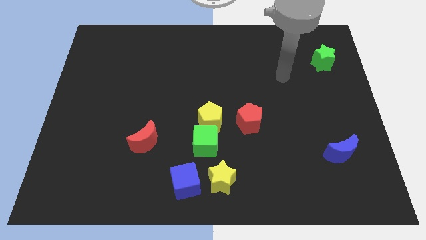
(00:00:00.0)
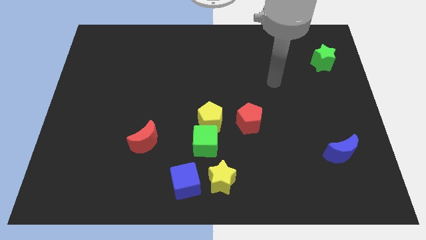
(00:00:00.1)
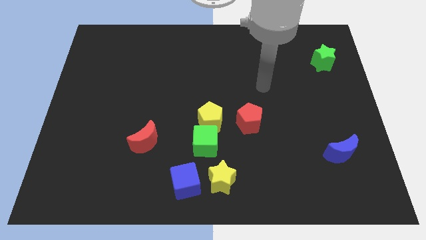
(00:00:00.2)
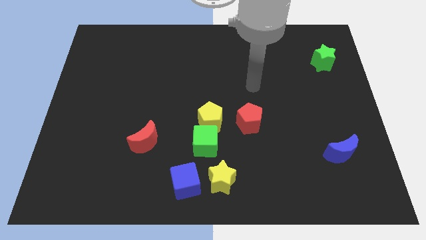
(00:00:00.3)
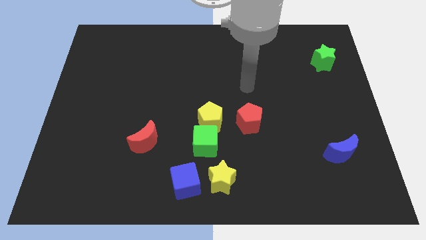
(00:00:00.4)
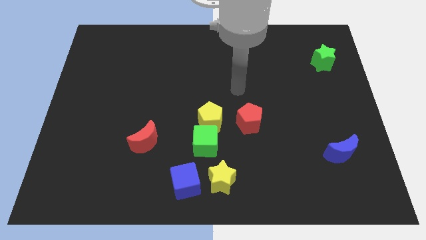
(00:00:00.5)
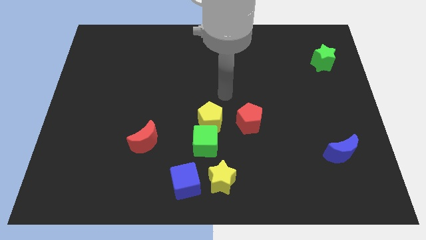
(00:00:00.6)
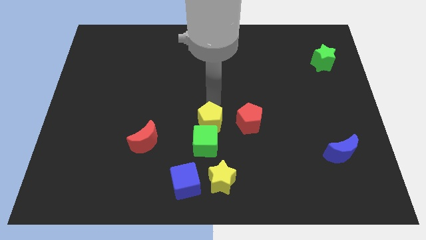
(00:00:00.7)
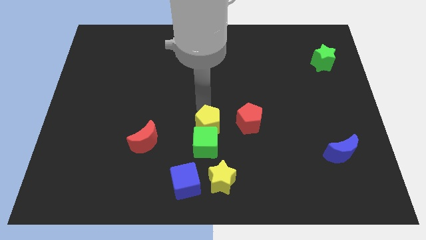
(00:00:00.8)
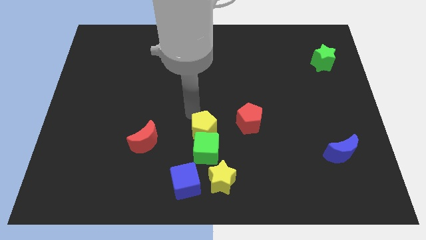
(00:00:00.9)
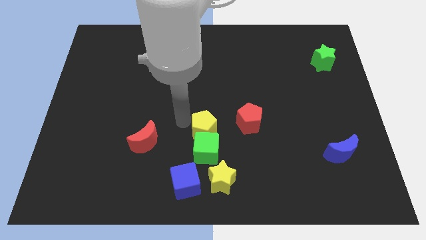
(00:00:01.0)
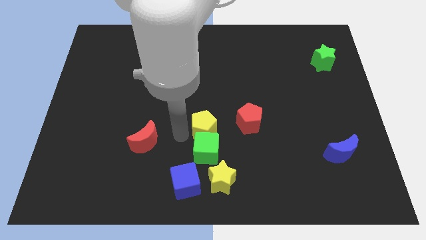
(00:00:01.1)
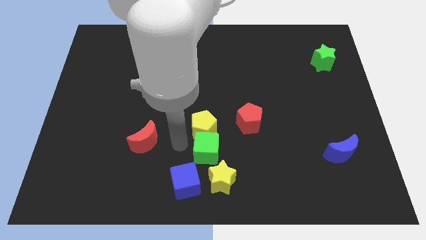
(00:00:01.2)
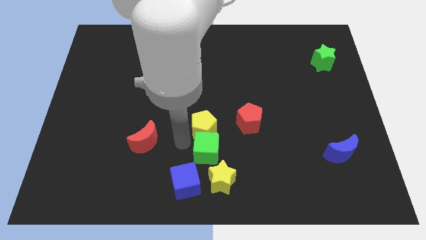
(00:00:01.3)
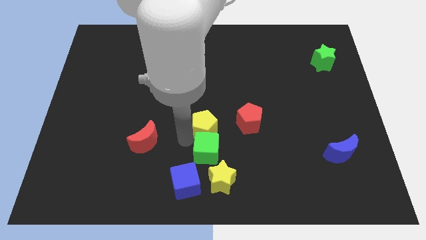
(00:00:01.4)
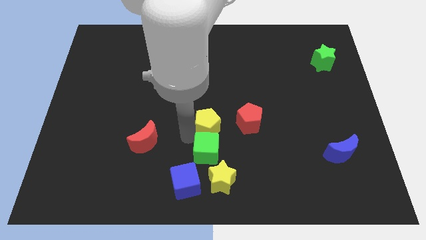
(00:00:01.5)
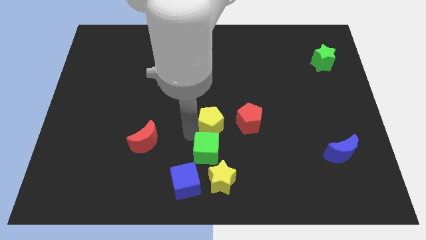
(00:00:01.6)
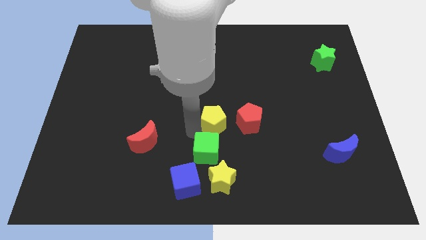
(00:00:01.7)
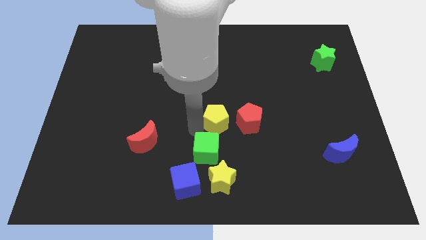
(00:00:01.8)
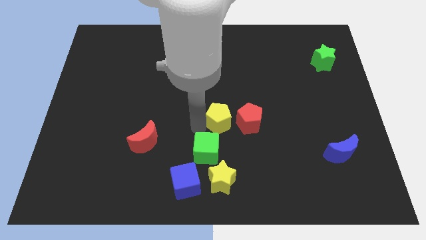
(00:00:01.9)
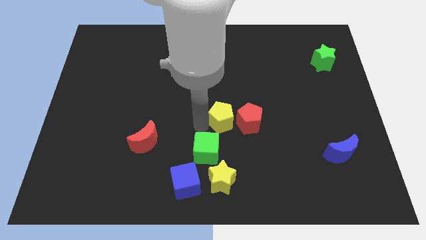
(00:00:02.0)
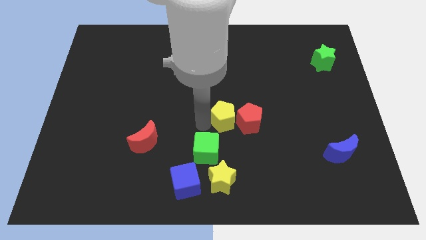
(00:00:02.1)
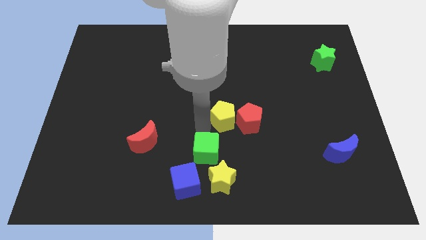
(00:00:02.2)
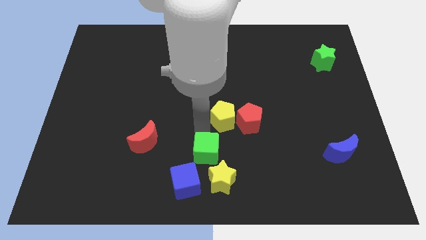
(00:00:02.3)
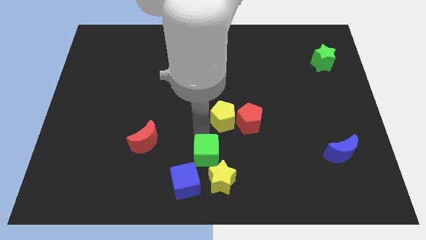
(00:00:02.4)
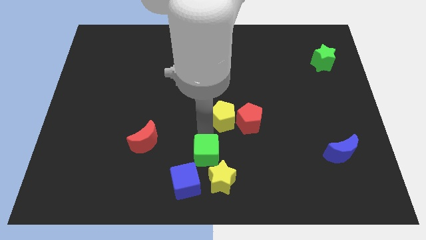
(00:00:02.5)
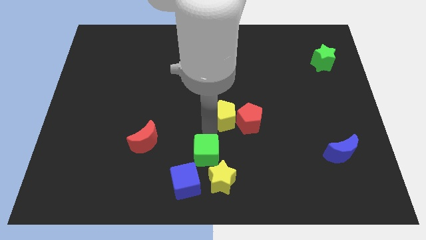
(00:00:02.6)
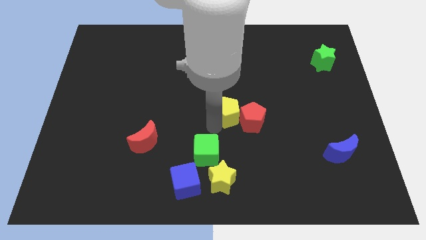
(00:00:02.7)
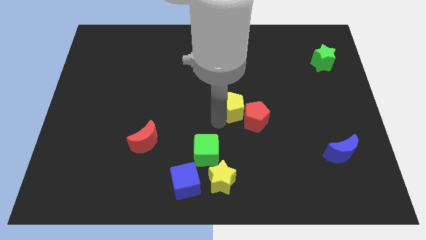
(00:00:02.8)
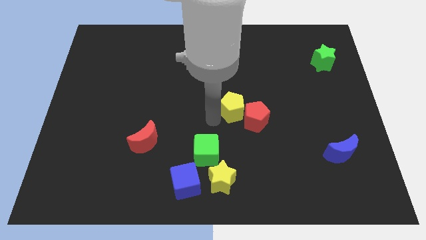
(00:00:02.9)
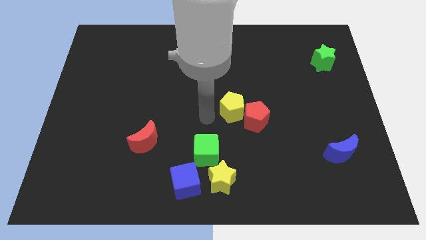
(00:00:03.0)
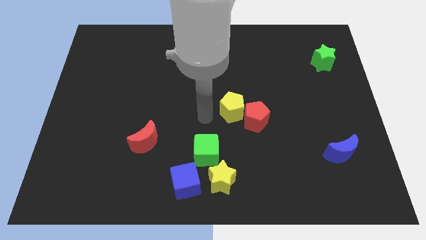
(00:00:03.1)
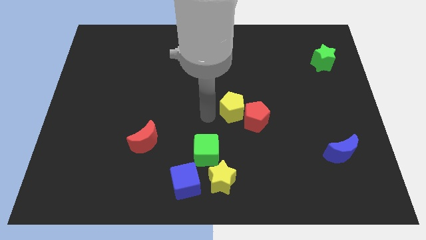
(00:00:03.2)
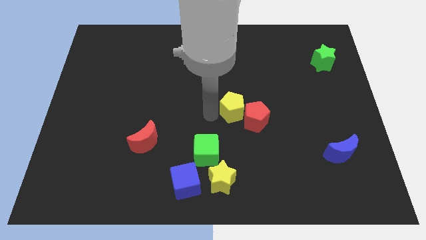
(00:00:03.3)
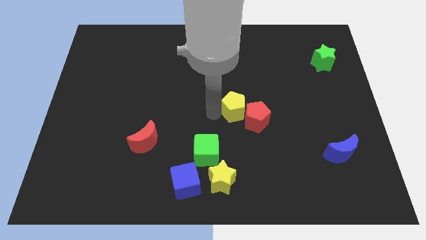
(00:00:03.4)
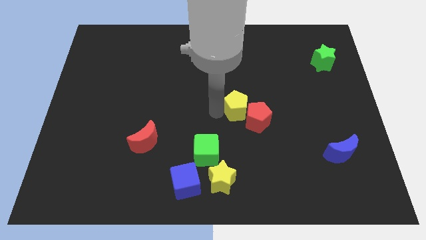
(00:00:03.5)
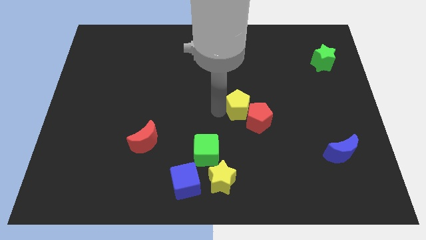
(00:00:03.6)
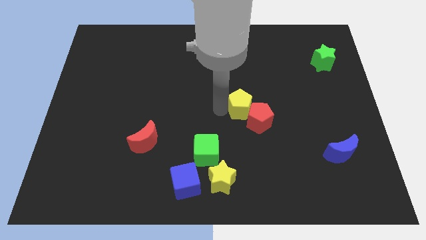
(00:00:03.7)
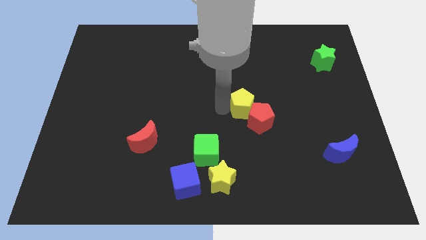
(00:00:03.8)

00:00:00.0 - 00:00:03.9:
slide the yellow pentagon to the right somewhat

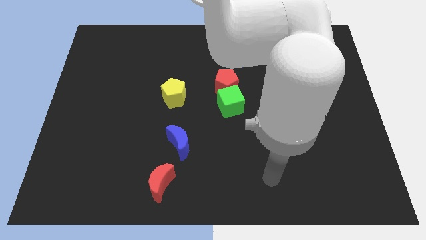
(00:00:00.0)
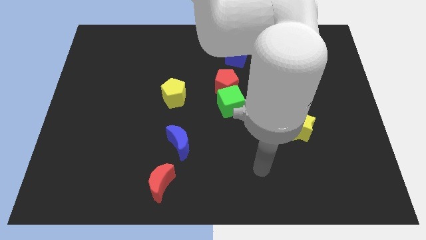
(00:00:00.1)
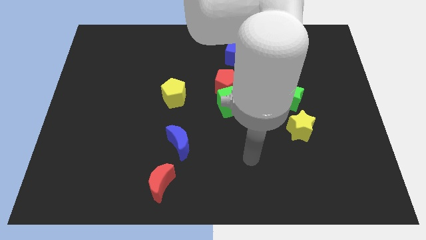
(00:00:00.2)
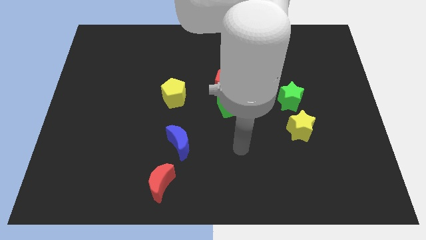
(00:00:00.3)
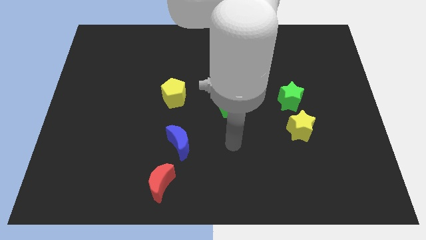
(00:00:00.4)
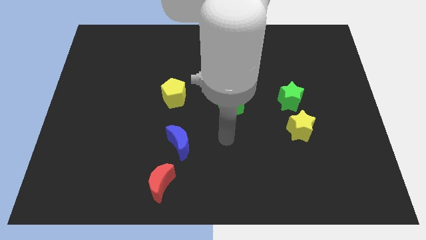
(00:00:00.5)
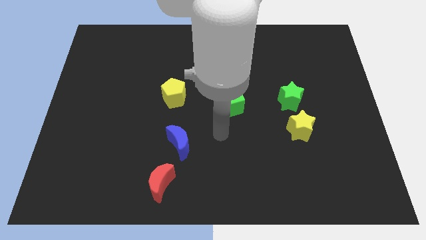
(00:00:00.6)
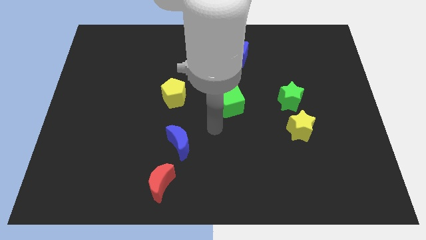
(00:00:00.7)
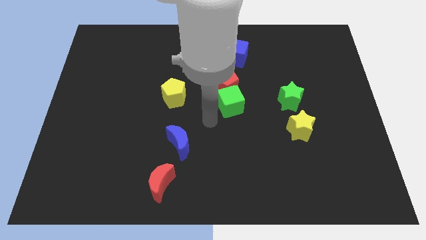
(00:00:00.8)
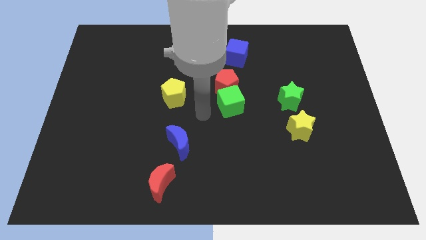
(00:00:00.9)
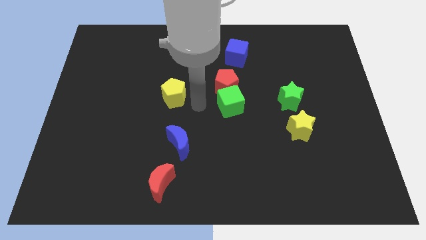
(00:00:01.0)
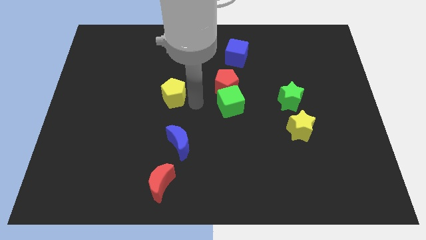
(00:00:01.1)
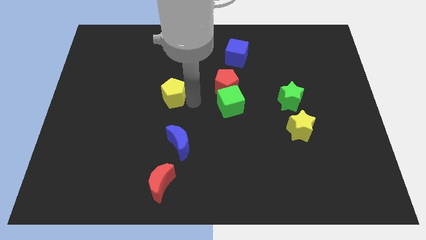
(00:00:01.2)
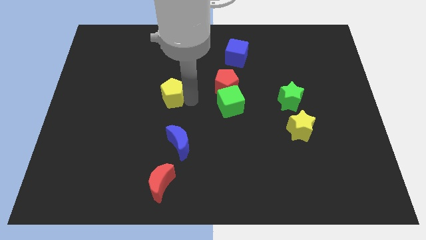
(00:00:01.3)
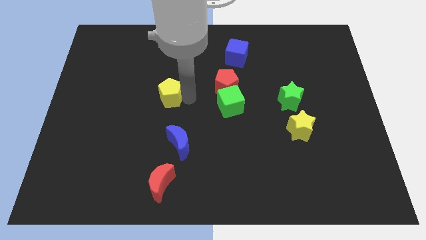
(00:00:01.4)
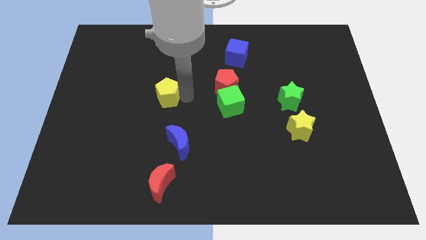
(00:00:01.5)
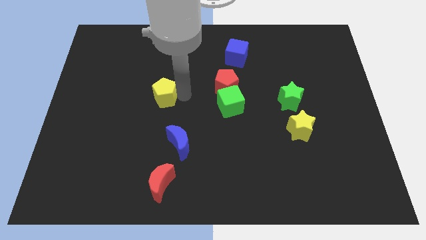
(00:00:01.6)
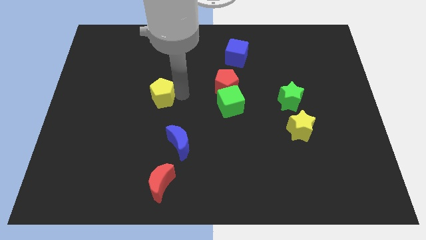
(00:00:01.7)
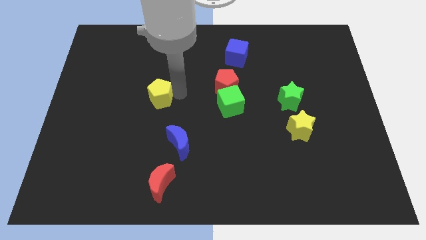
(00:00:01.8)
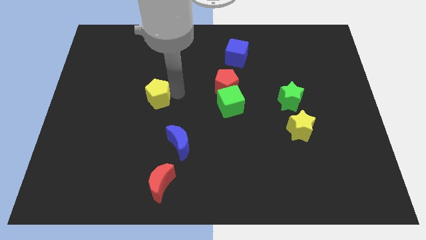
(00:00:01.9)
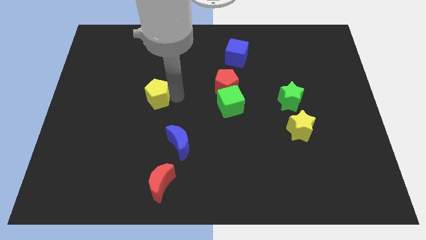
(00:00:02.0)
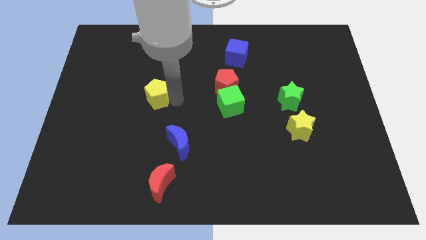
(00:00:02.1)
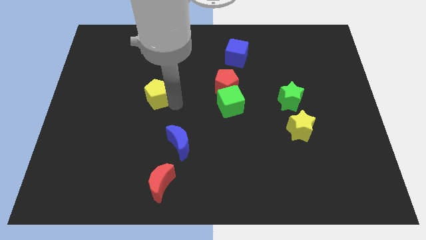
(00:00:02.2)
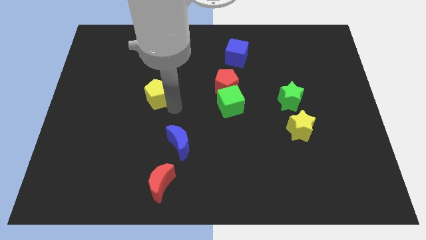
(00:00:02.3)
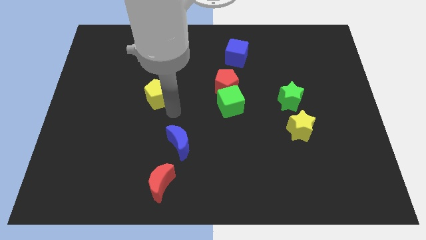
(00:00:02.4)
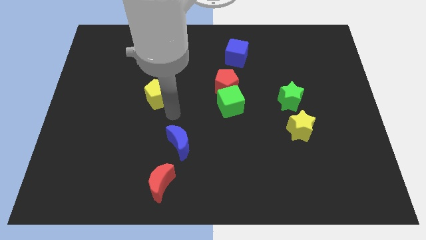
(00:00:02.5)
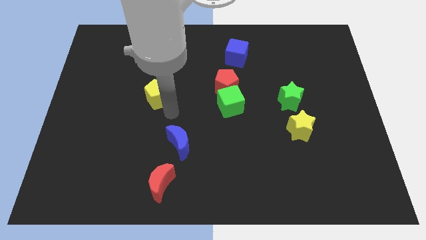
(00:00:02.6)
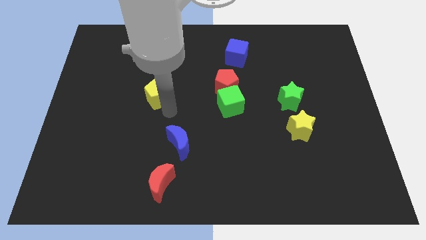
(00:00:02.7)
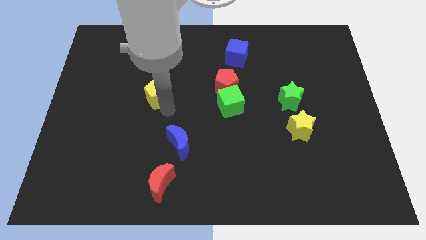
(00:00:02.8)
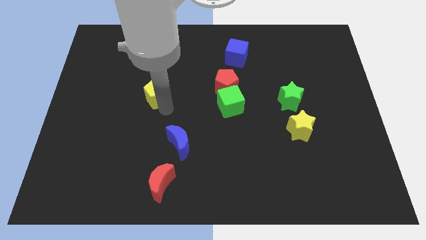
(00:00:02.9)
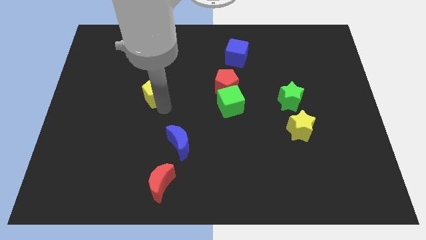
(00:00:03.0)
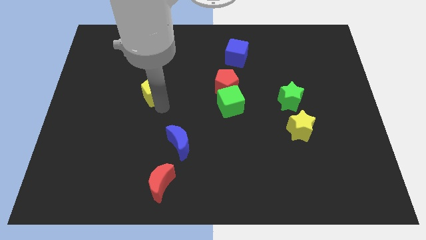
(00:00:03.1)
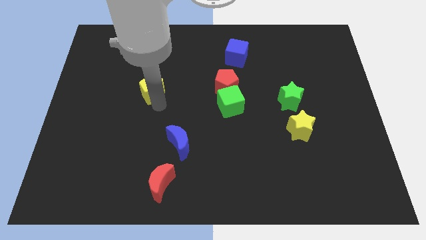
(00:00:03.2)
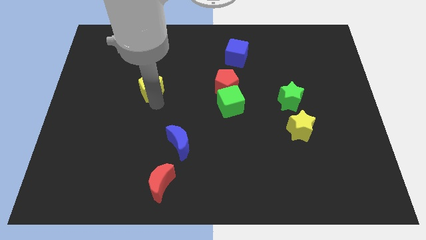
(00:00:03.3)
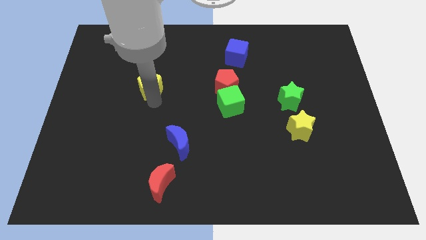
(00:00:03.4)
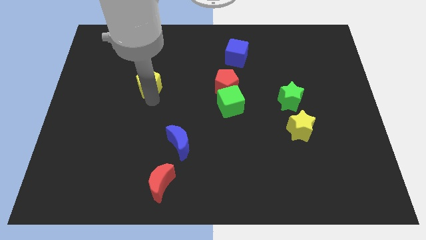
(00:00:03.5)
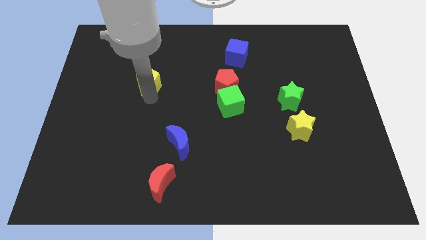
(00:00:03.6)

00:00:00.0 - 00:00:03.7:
slightly move the yellow pentagon upwards and then left

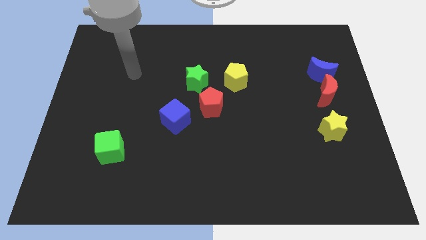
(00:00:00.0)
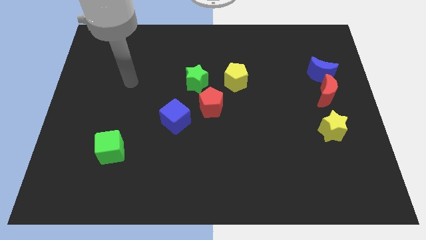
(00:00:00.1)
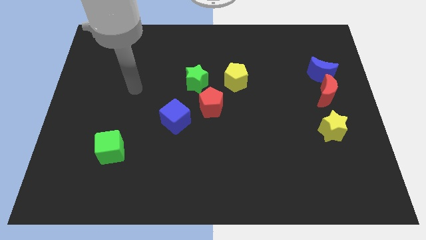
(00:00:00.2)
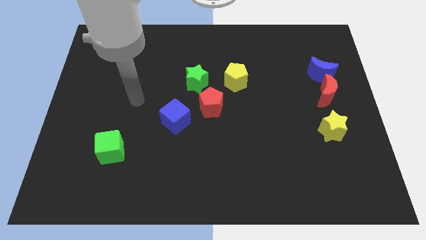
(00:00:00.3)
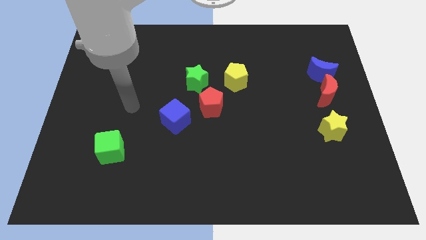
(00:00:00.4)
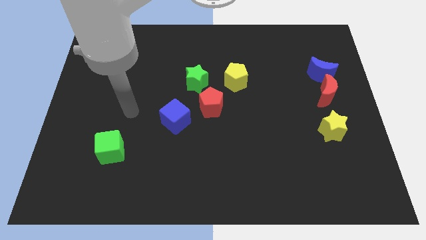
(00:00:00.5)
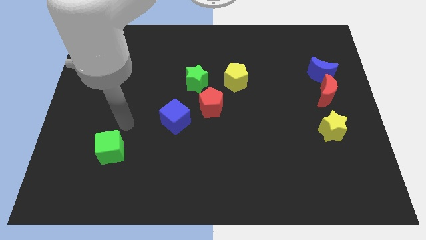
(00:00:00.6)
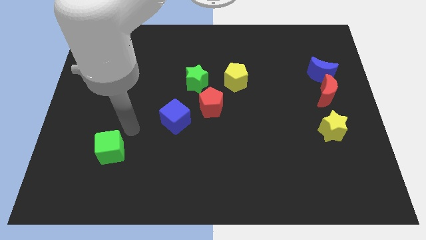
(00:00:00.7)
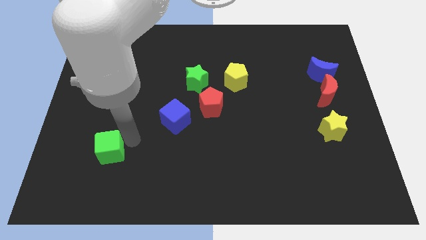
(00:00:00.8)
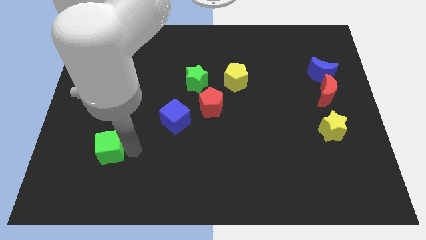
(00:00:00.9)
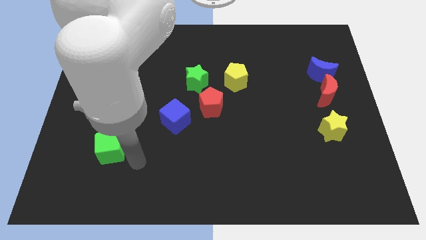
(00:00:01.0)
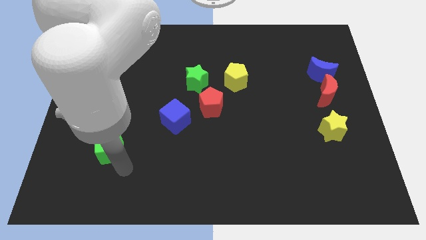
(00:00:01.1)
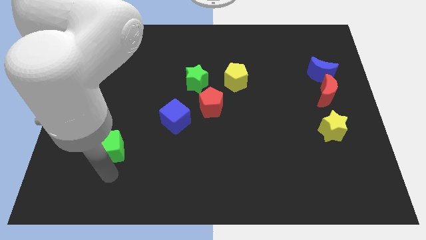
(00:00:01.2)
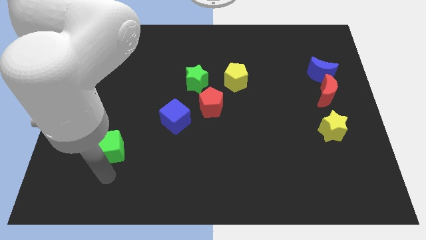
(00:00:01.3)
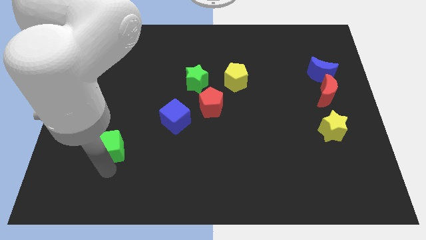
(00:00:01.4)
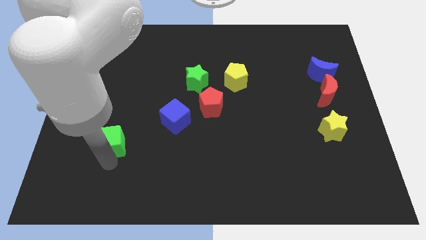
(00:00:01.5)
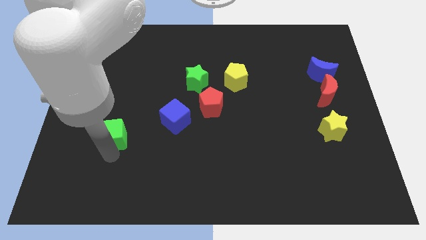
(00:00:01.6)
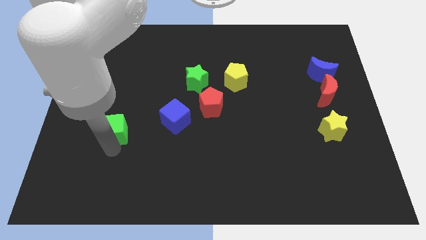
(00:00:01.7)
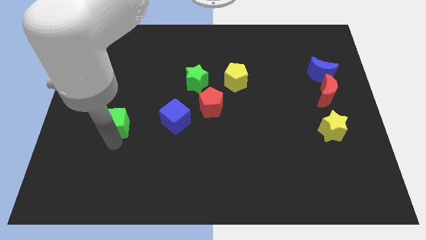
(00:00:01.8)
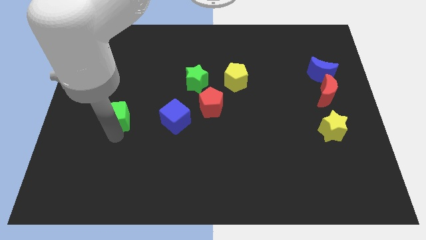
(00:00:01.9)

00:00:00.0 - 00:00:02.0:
move the green cube slightly upwards
